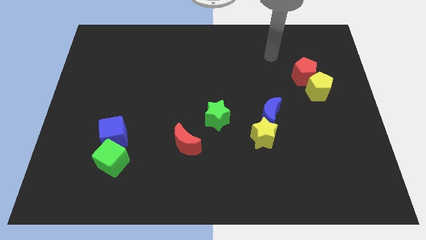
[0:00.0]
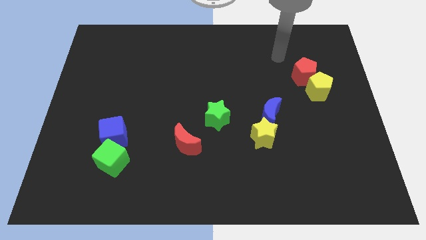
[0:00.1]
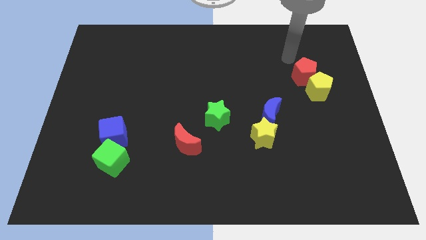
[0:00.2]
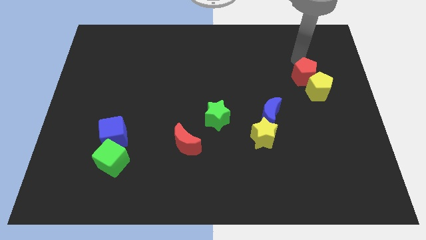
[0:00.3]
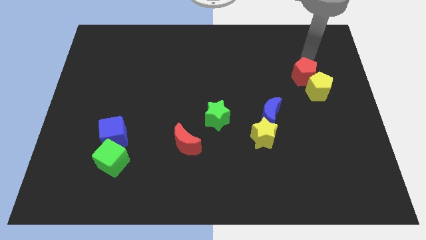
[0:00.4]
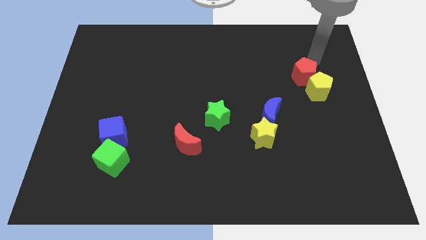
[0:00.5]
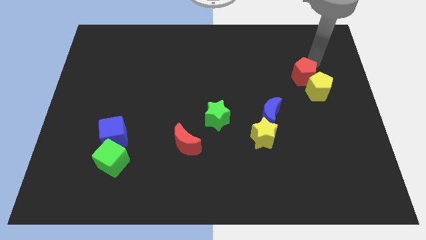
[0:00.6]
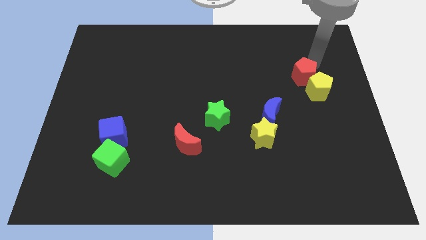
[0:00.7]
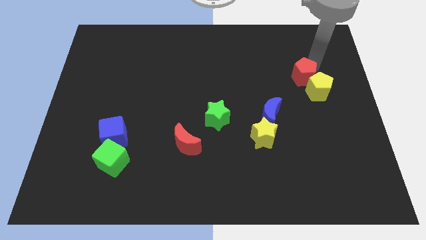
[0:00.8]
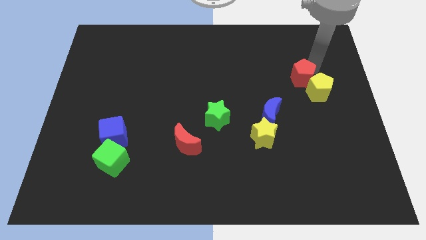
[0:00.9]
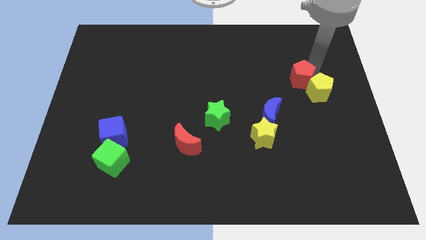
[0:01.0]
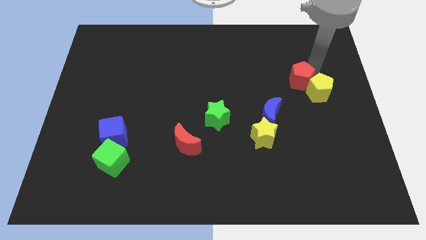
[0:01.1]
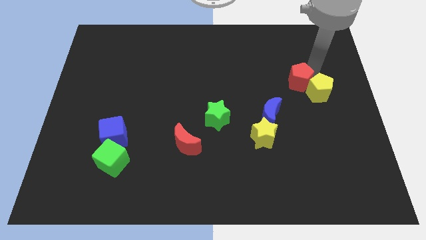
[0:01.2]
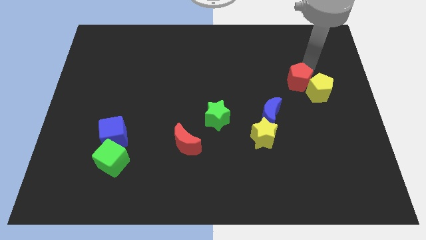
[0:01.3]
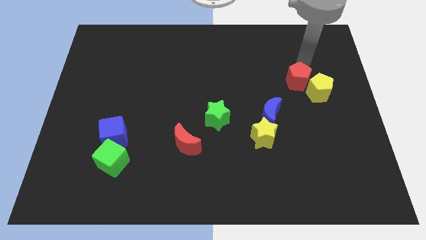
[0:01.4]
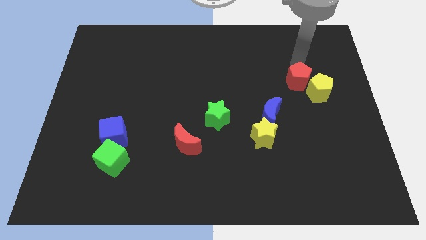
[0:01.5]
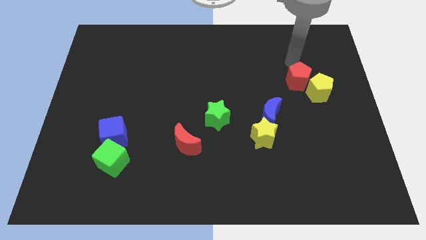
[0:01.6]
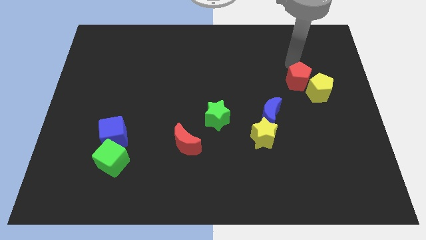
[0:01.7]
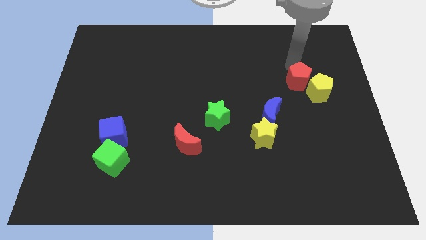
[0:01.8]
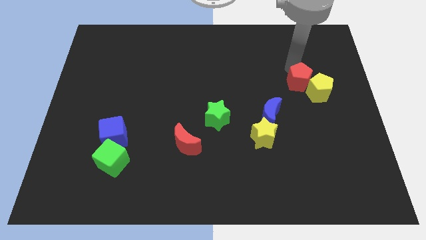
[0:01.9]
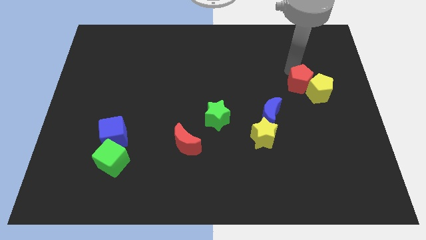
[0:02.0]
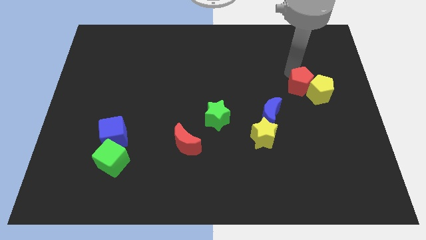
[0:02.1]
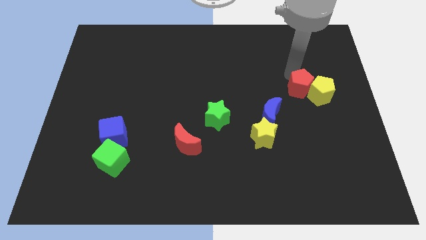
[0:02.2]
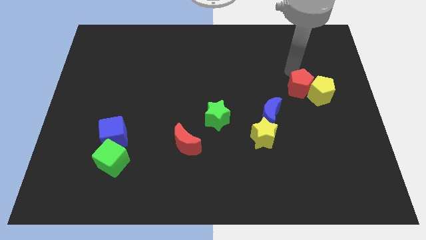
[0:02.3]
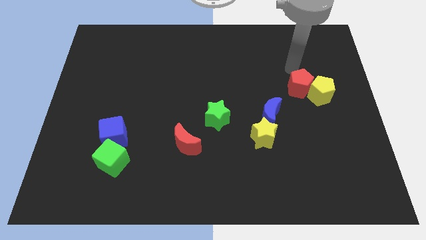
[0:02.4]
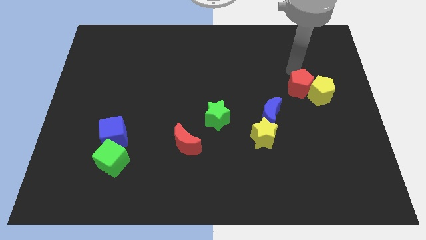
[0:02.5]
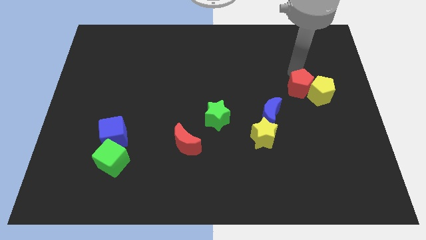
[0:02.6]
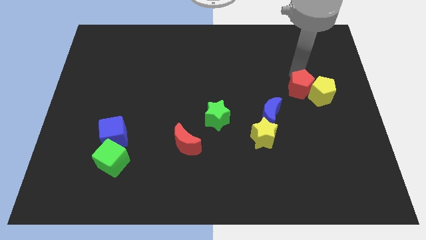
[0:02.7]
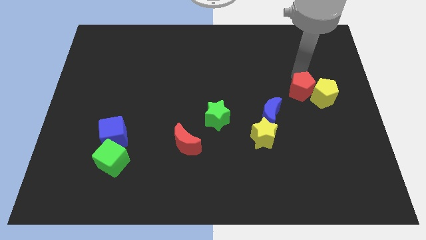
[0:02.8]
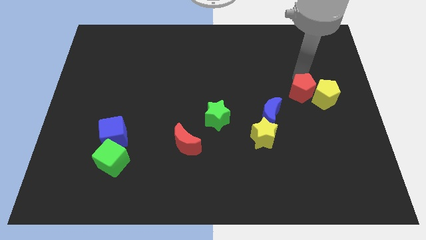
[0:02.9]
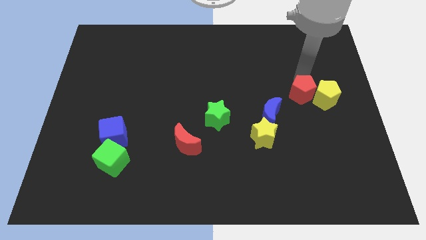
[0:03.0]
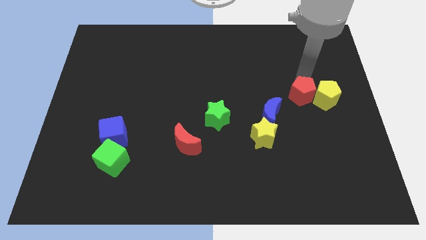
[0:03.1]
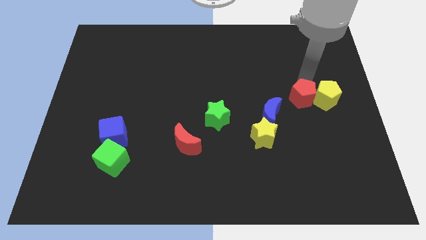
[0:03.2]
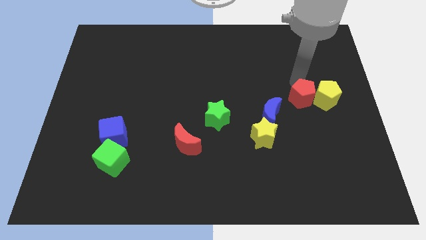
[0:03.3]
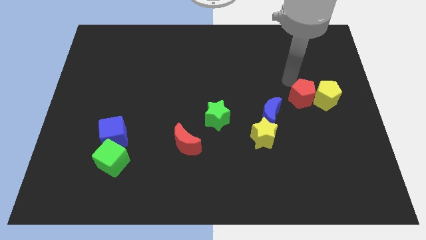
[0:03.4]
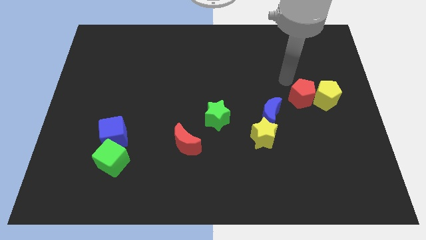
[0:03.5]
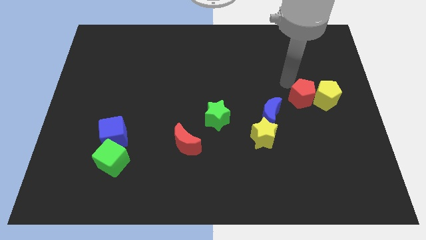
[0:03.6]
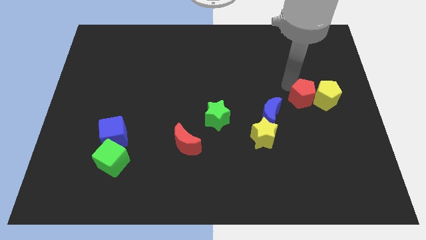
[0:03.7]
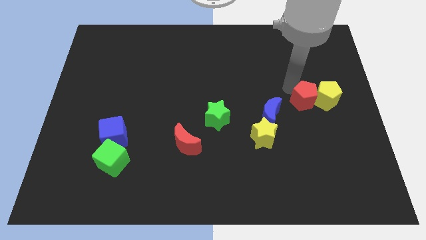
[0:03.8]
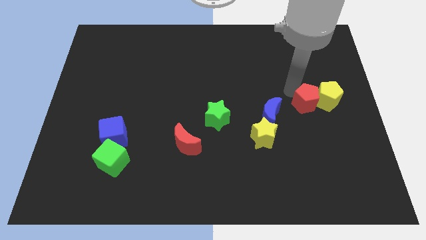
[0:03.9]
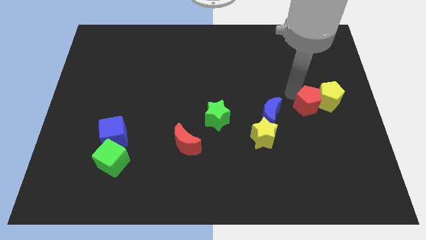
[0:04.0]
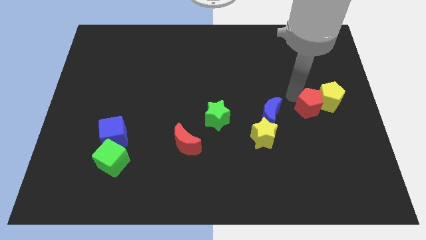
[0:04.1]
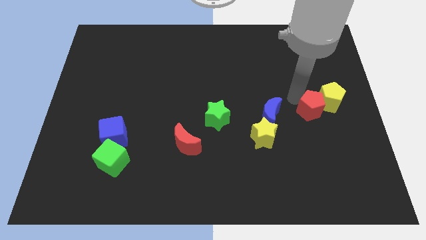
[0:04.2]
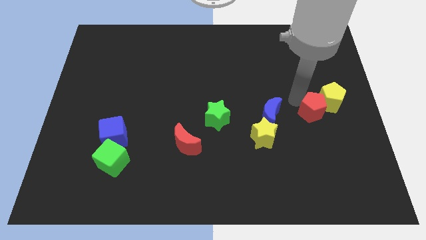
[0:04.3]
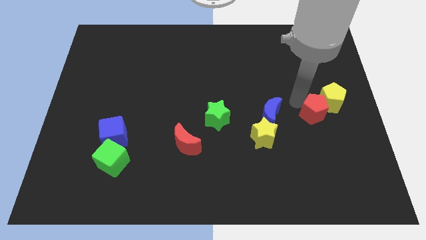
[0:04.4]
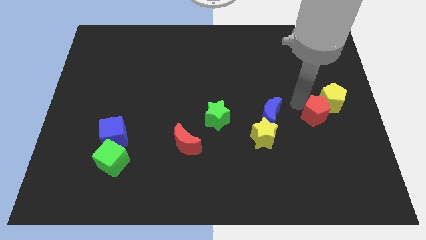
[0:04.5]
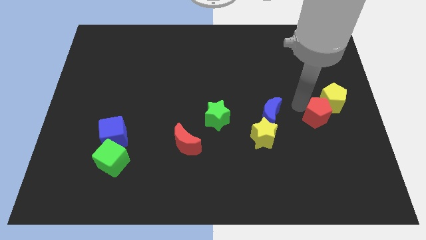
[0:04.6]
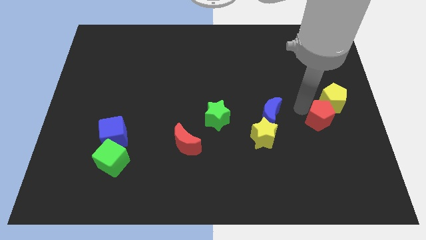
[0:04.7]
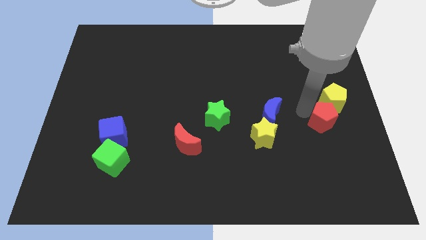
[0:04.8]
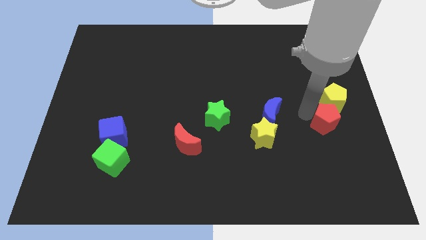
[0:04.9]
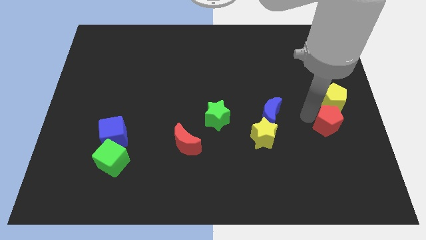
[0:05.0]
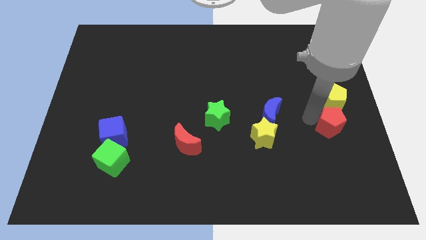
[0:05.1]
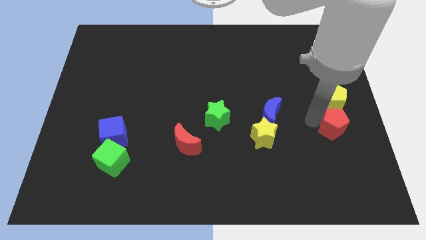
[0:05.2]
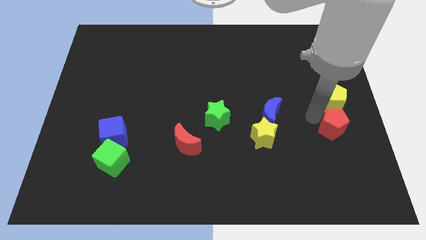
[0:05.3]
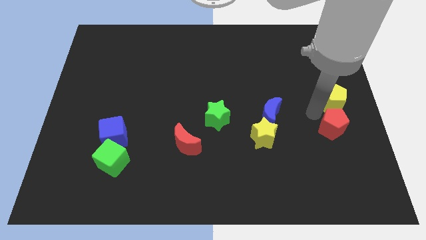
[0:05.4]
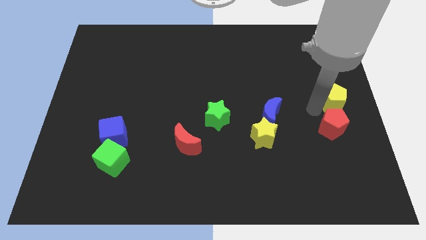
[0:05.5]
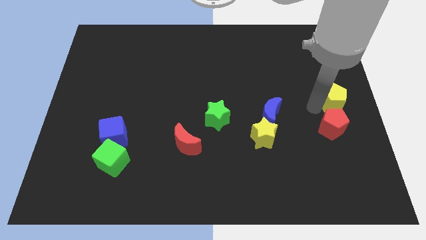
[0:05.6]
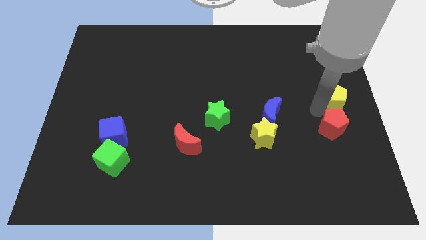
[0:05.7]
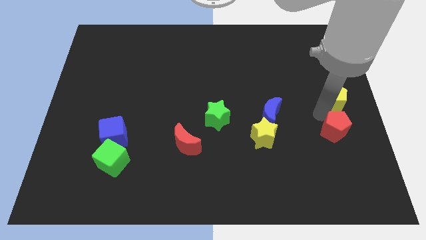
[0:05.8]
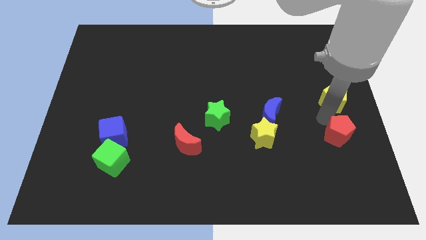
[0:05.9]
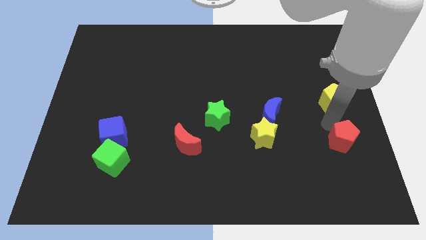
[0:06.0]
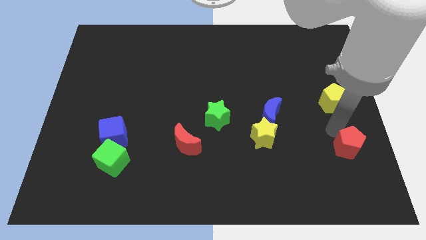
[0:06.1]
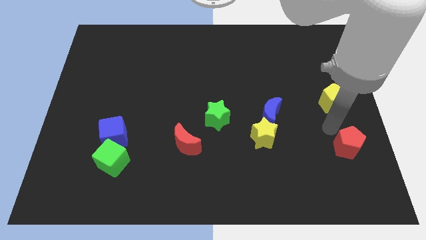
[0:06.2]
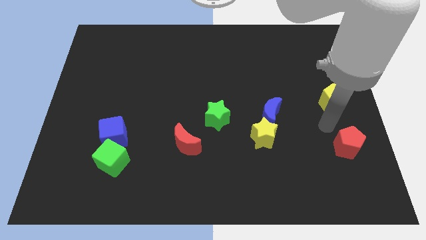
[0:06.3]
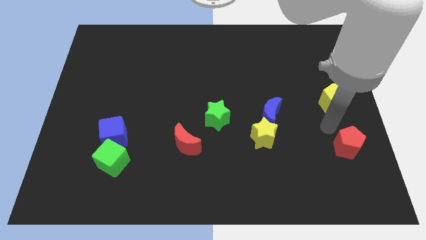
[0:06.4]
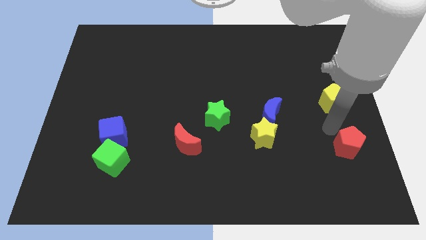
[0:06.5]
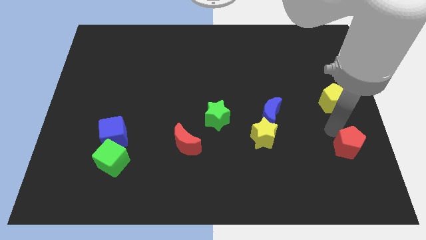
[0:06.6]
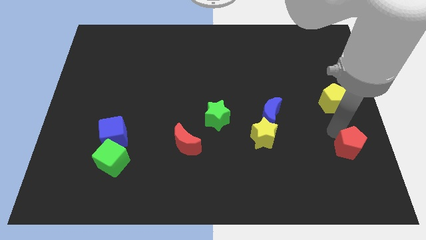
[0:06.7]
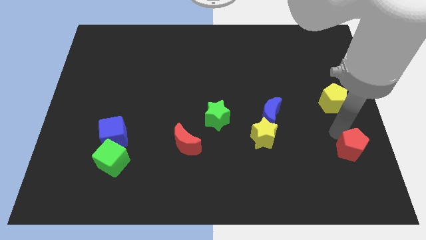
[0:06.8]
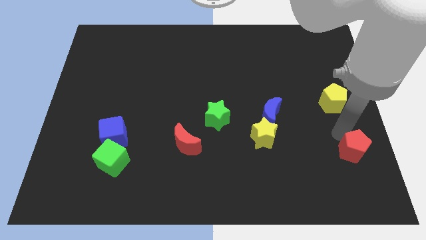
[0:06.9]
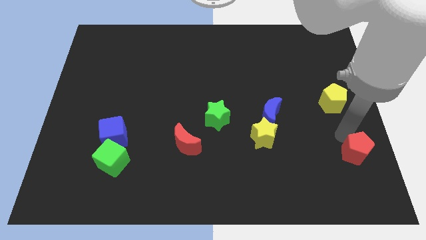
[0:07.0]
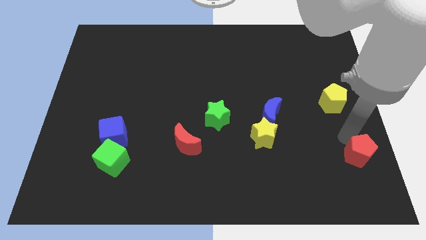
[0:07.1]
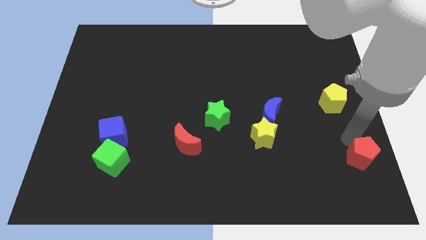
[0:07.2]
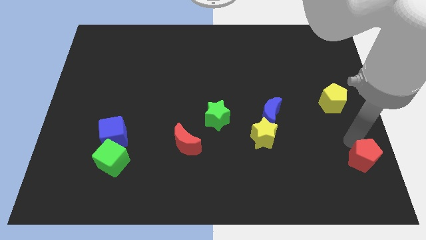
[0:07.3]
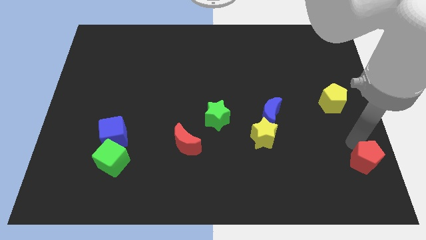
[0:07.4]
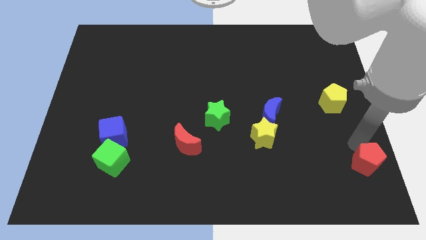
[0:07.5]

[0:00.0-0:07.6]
slide the red pentagon to the bottom right
